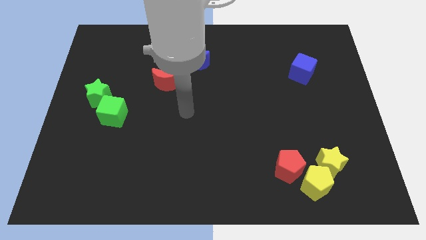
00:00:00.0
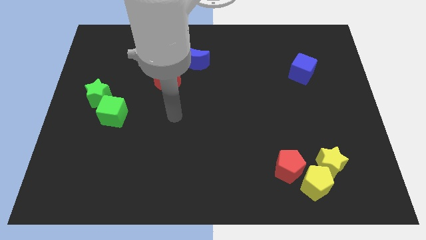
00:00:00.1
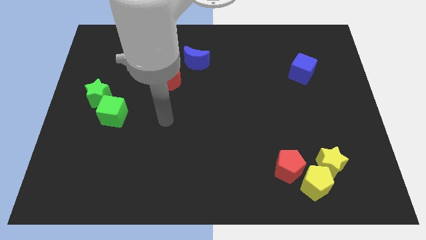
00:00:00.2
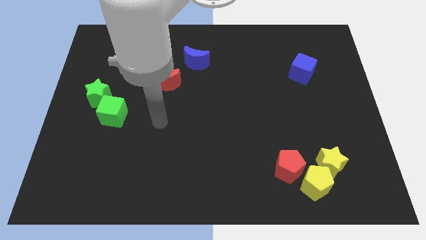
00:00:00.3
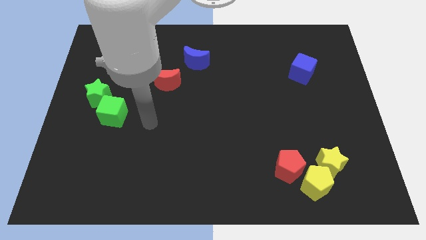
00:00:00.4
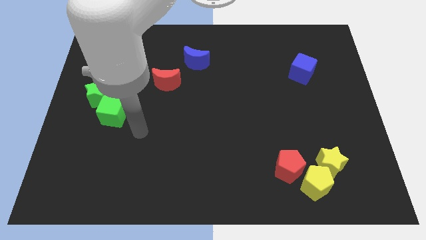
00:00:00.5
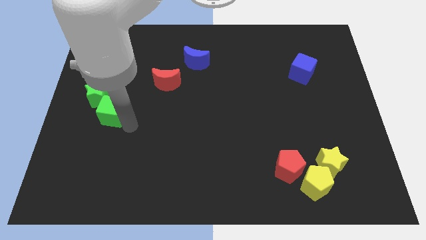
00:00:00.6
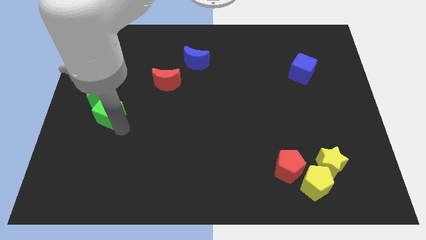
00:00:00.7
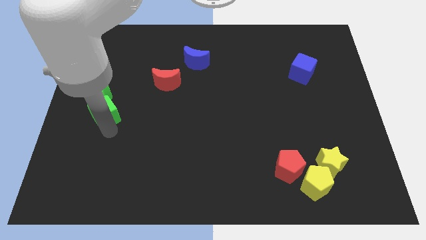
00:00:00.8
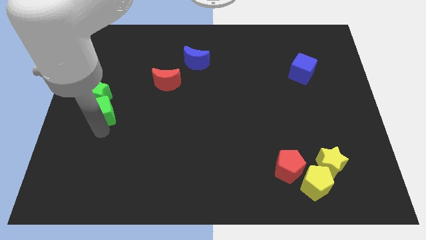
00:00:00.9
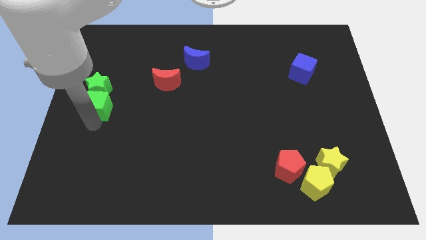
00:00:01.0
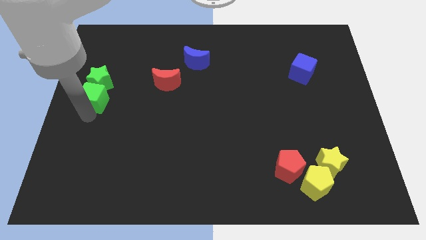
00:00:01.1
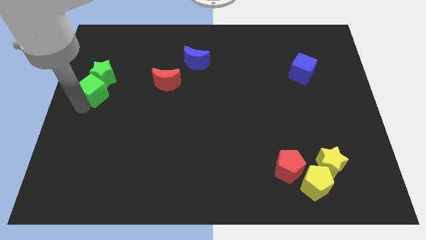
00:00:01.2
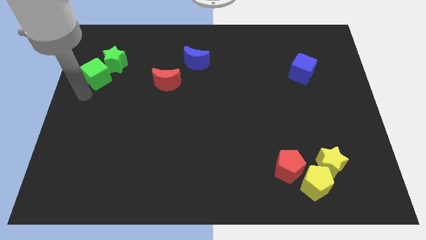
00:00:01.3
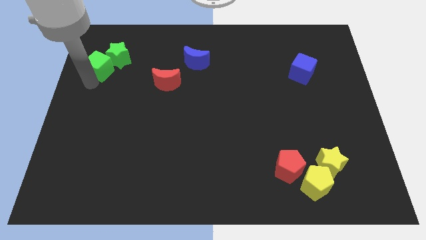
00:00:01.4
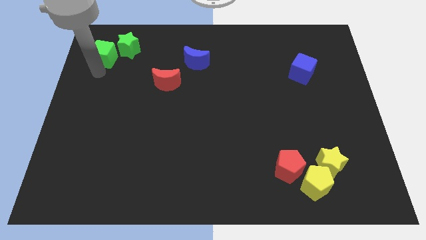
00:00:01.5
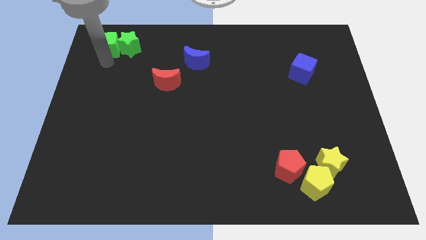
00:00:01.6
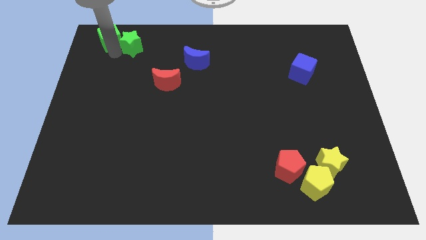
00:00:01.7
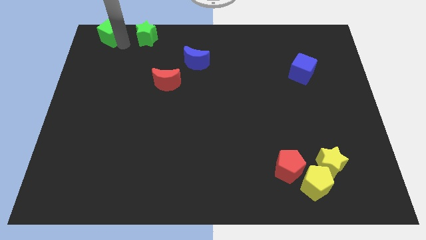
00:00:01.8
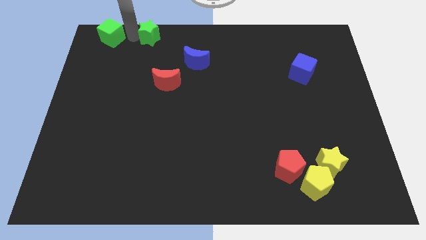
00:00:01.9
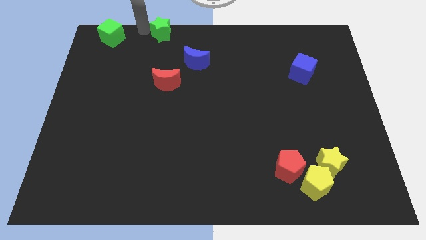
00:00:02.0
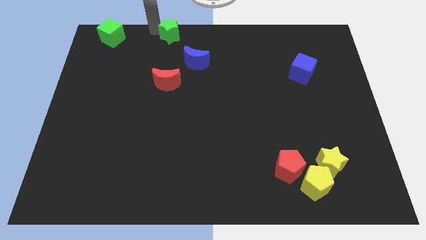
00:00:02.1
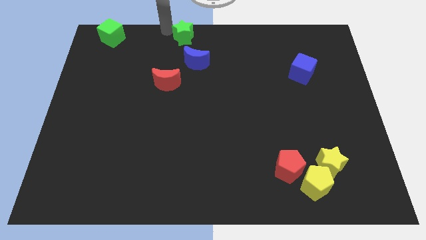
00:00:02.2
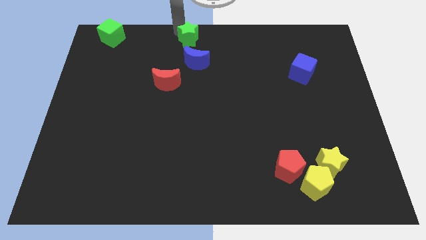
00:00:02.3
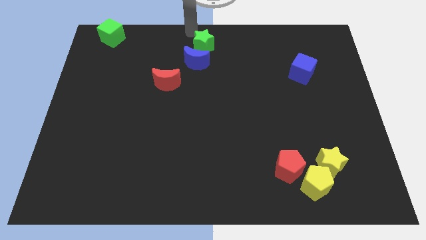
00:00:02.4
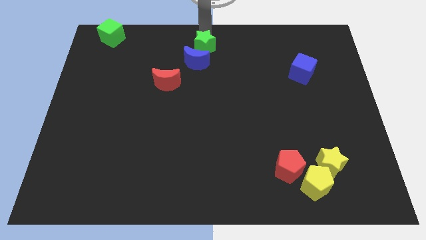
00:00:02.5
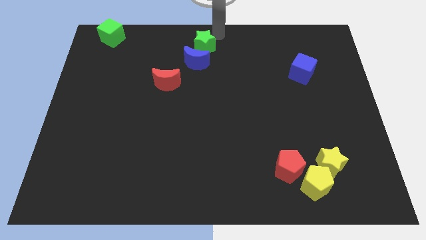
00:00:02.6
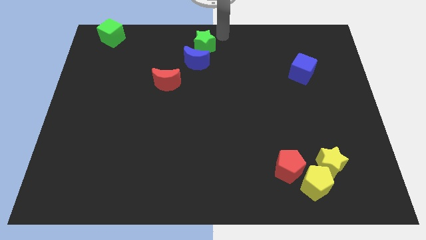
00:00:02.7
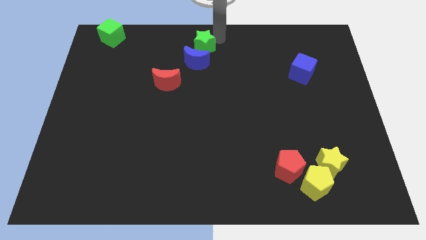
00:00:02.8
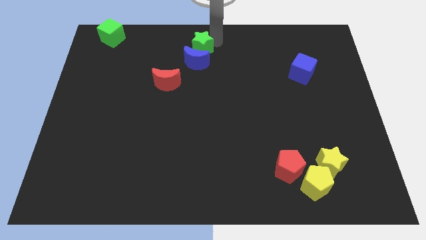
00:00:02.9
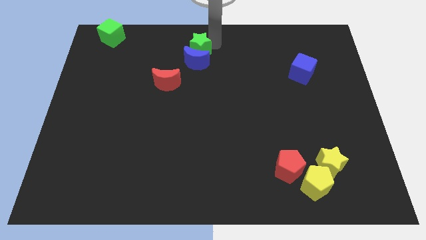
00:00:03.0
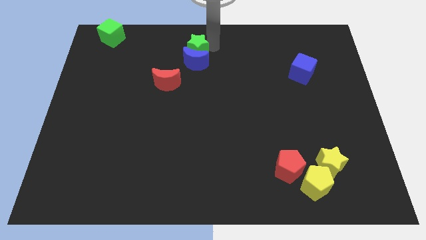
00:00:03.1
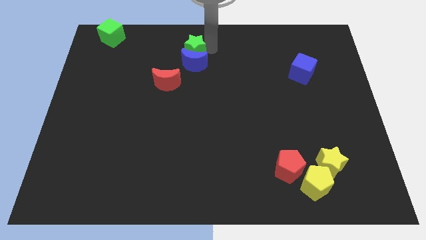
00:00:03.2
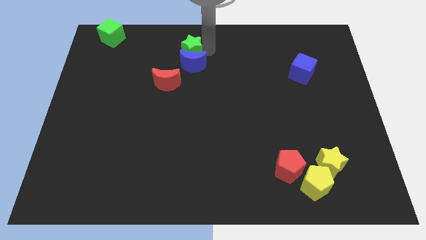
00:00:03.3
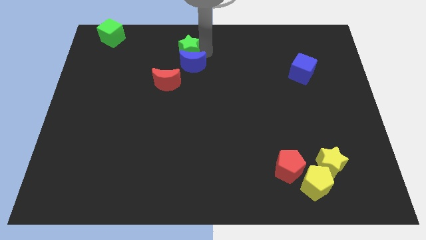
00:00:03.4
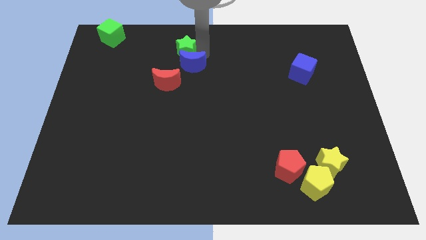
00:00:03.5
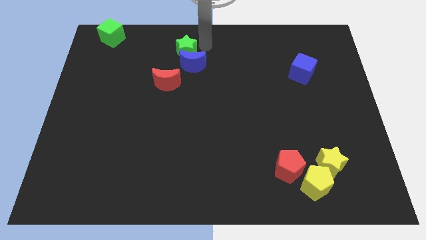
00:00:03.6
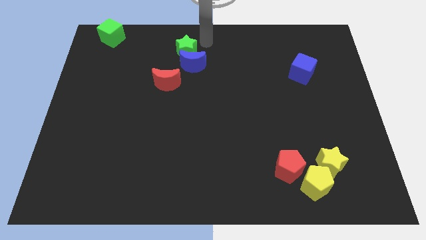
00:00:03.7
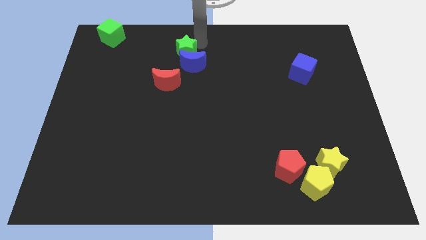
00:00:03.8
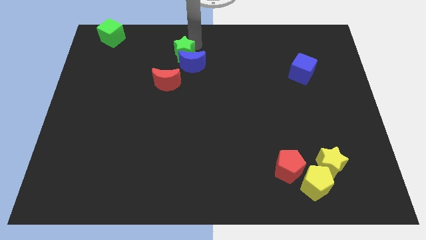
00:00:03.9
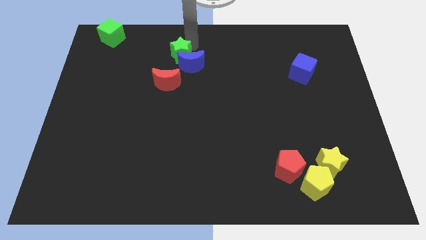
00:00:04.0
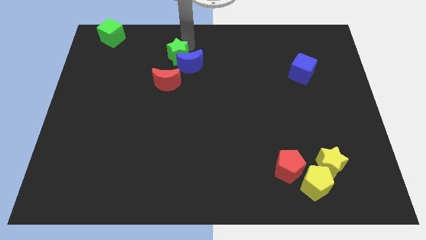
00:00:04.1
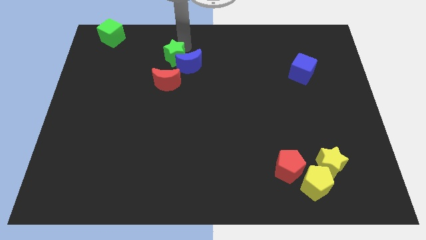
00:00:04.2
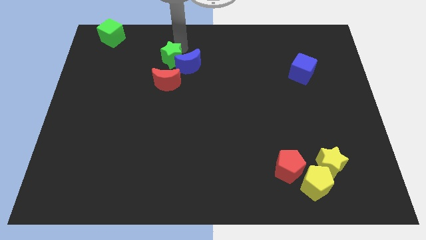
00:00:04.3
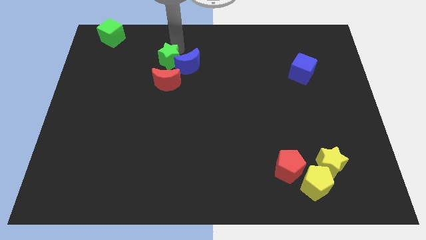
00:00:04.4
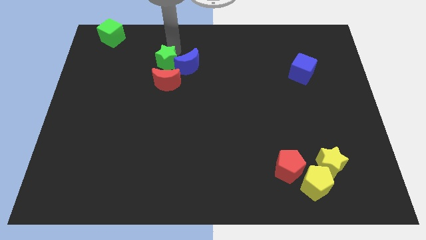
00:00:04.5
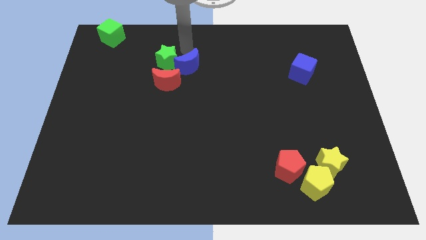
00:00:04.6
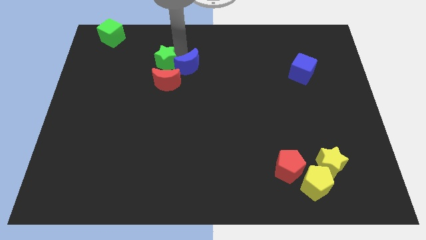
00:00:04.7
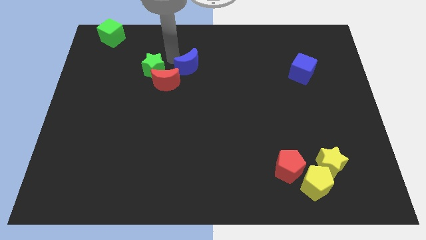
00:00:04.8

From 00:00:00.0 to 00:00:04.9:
move the green star to the red moon

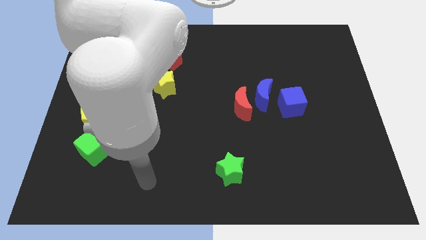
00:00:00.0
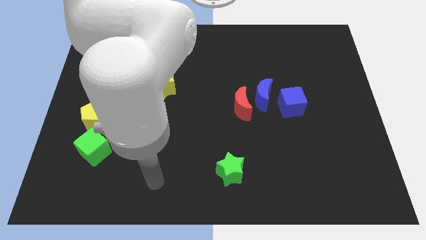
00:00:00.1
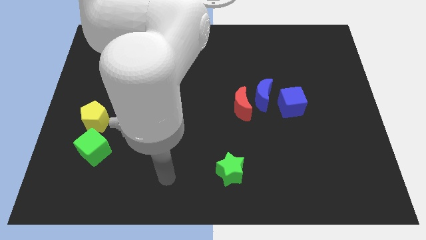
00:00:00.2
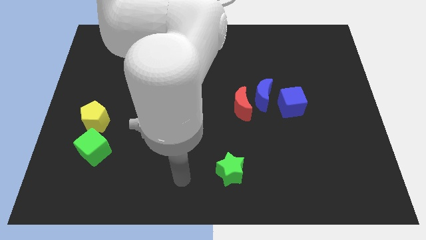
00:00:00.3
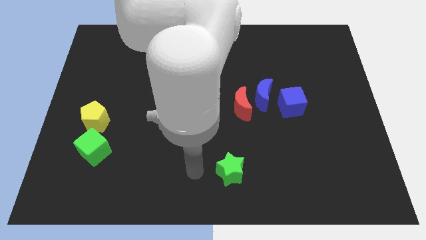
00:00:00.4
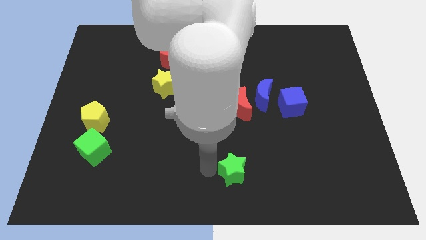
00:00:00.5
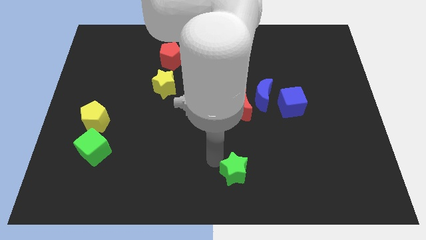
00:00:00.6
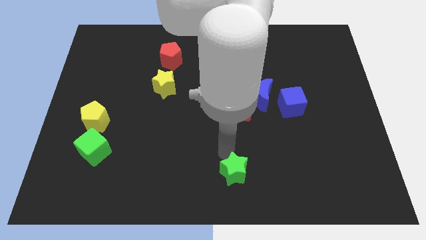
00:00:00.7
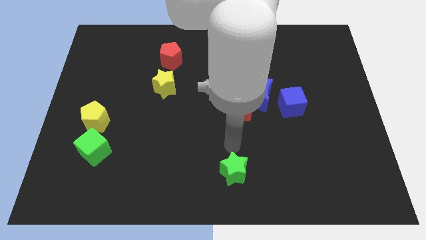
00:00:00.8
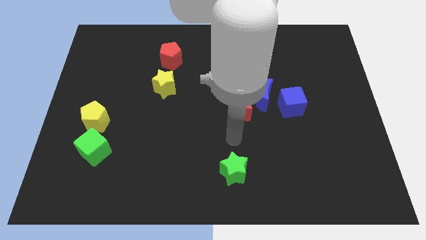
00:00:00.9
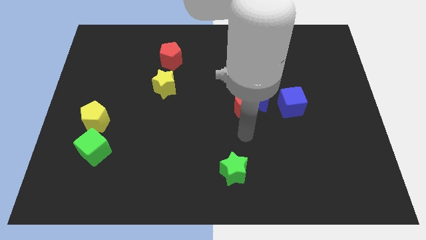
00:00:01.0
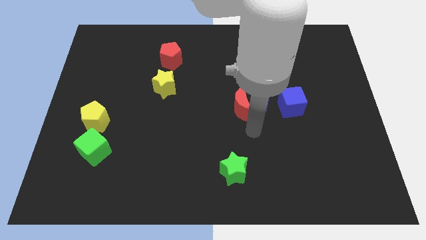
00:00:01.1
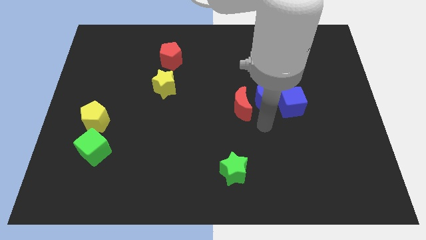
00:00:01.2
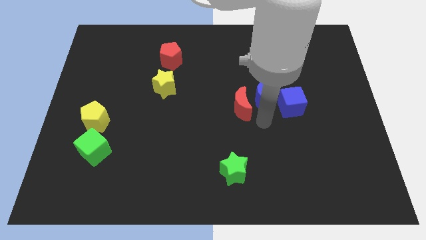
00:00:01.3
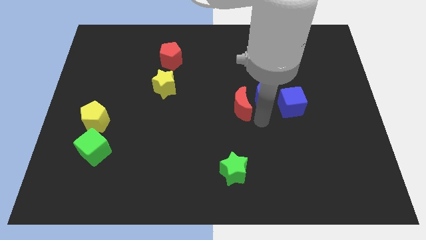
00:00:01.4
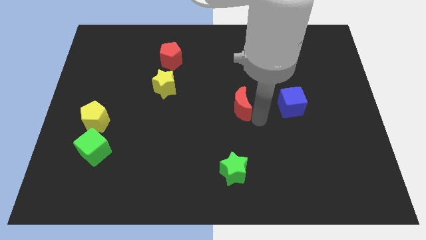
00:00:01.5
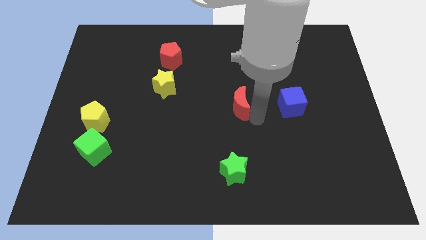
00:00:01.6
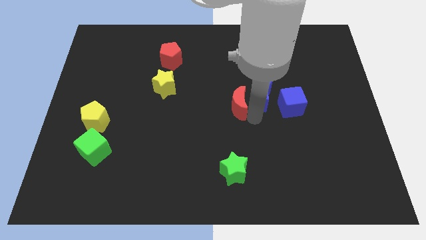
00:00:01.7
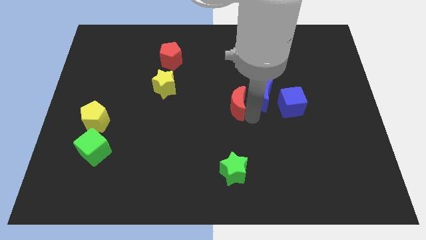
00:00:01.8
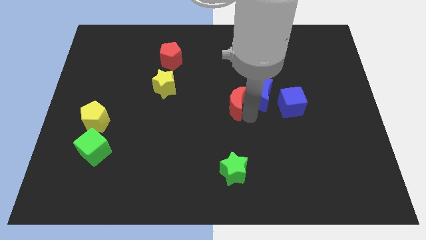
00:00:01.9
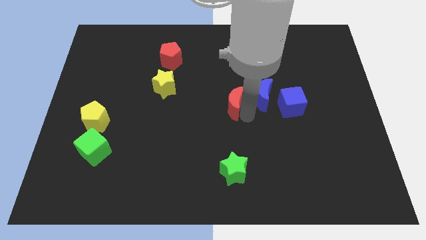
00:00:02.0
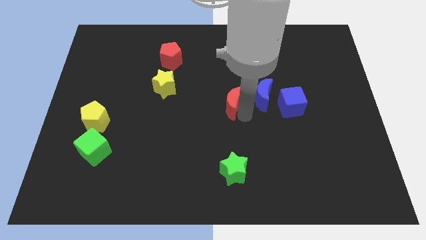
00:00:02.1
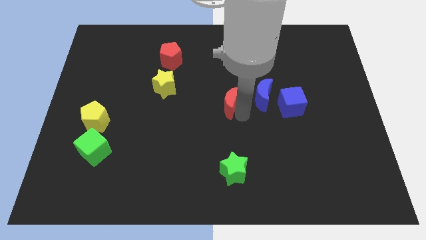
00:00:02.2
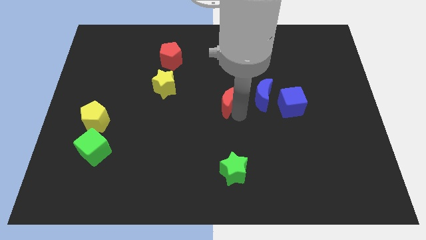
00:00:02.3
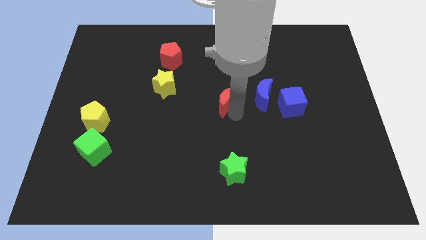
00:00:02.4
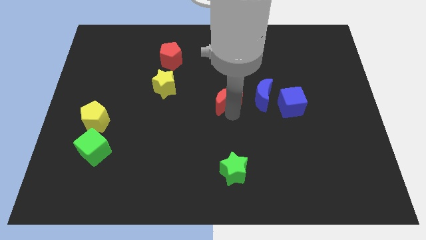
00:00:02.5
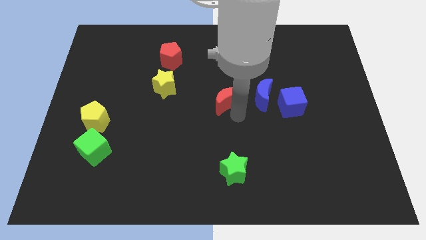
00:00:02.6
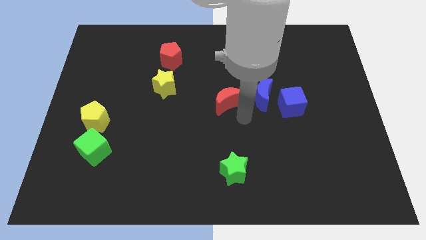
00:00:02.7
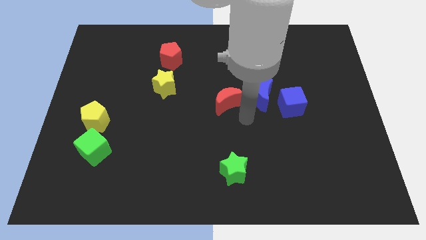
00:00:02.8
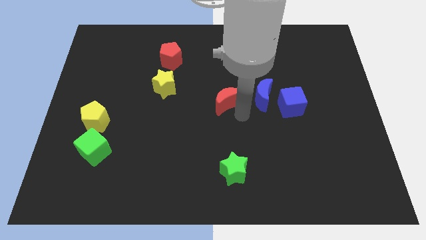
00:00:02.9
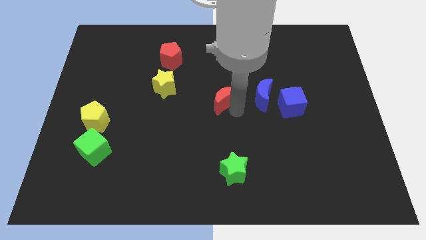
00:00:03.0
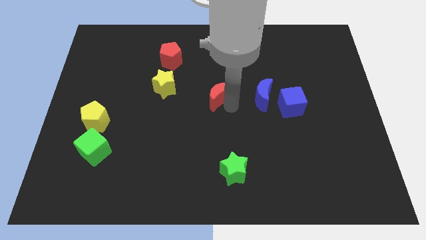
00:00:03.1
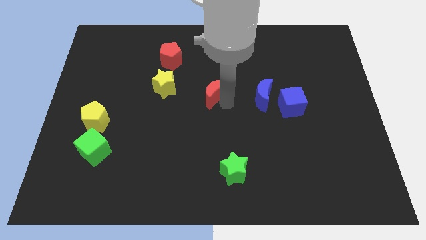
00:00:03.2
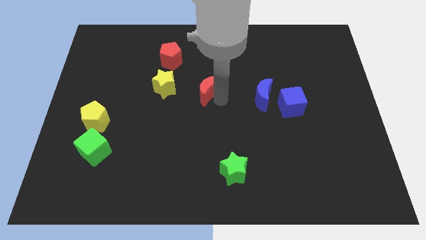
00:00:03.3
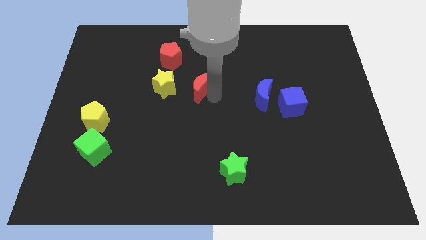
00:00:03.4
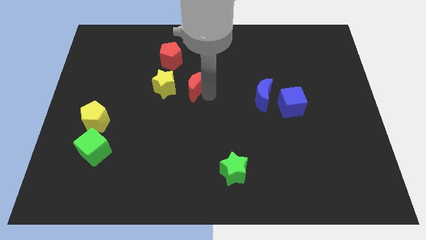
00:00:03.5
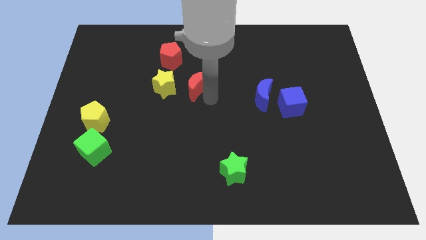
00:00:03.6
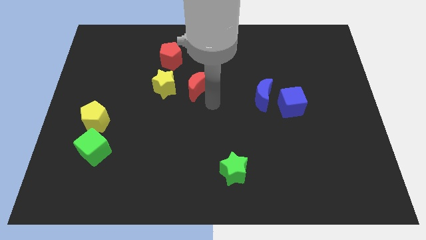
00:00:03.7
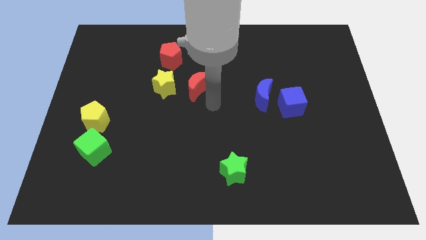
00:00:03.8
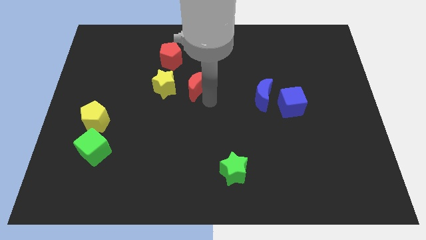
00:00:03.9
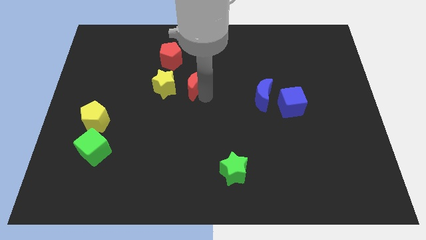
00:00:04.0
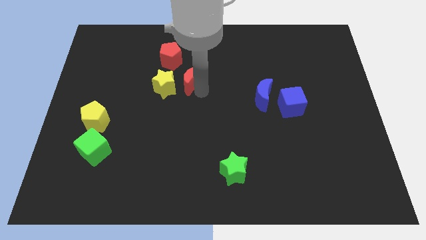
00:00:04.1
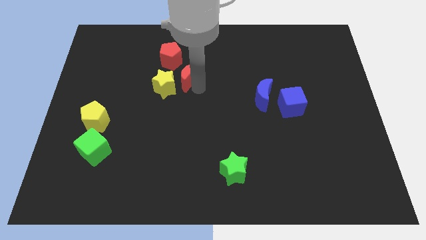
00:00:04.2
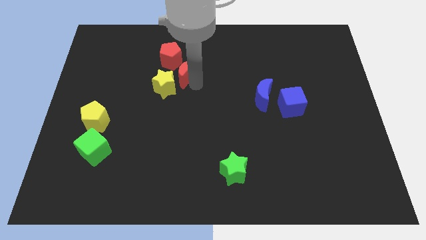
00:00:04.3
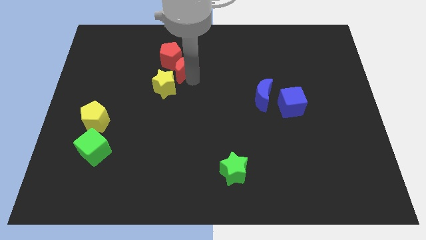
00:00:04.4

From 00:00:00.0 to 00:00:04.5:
put the red moon close to the red pentagon
